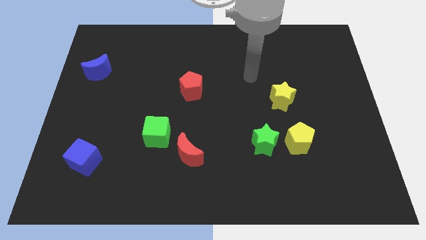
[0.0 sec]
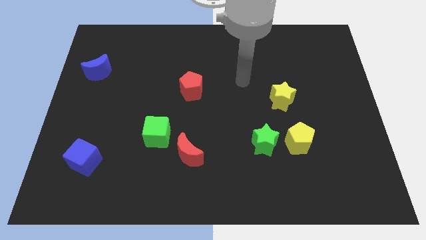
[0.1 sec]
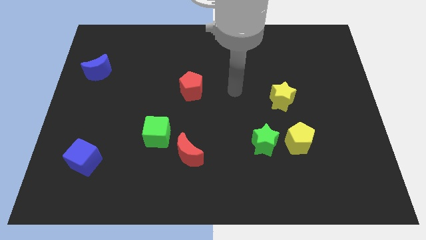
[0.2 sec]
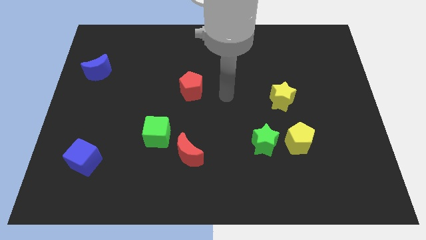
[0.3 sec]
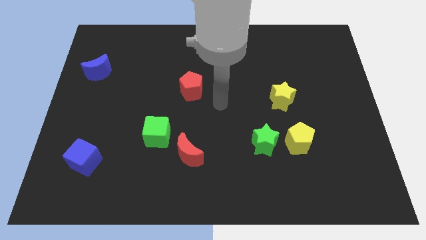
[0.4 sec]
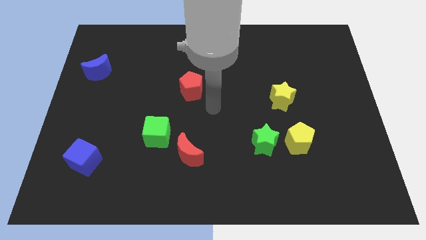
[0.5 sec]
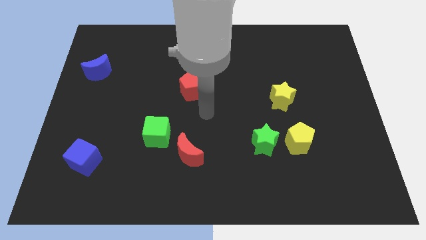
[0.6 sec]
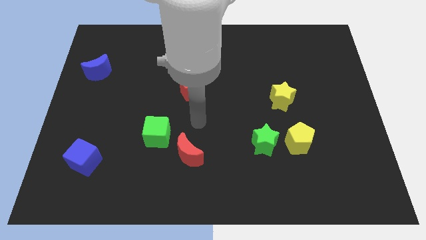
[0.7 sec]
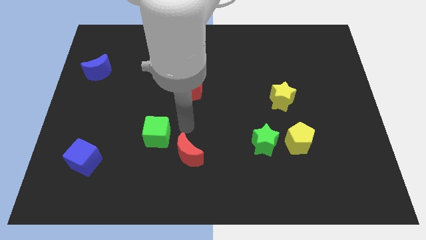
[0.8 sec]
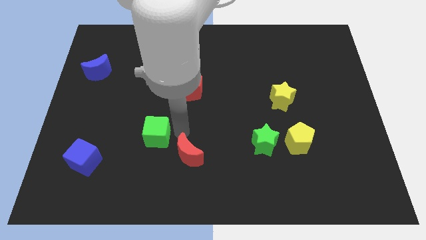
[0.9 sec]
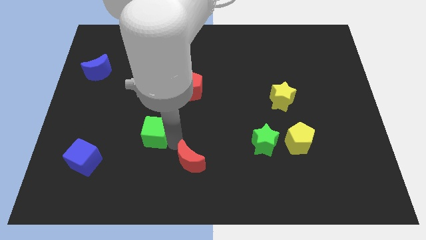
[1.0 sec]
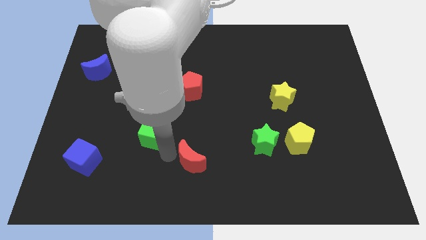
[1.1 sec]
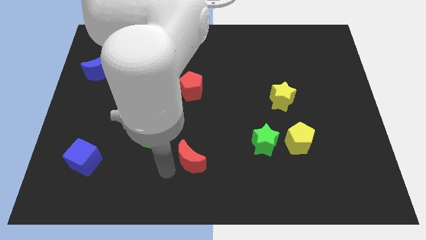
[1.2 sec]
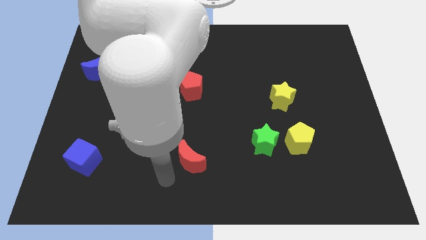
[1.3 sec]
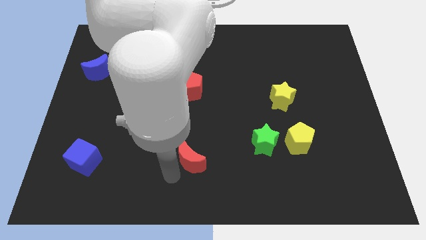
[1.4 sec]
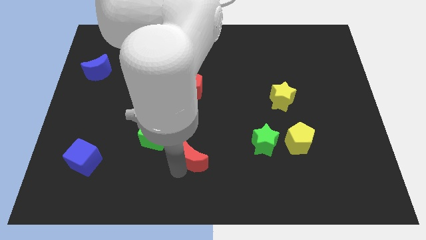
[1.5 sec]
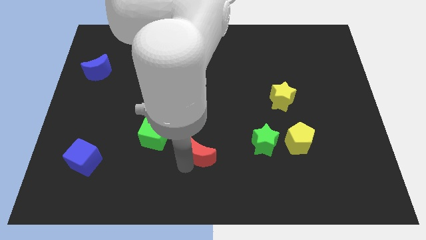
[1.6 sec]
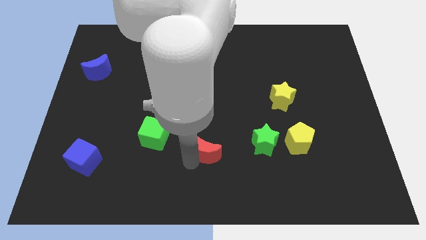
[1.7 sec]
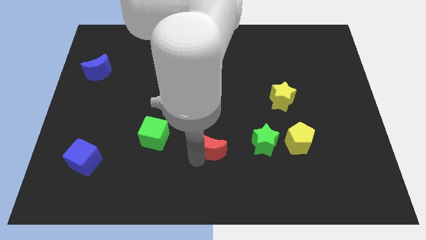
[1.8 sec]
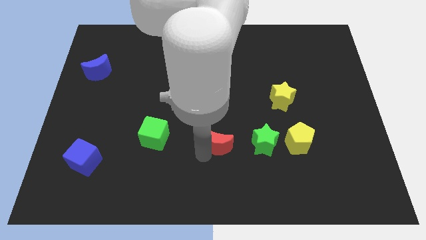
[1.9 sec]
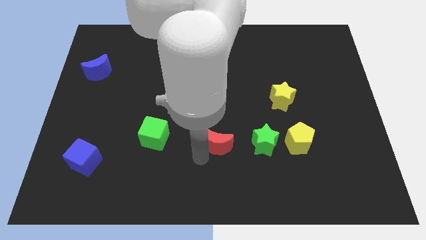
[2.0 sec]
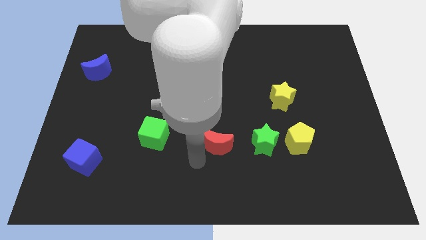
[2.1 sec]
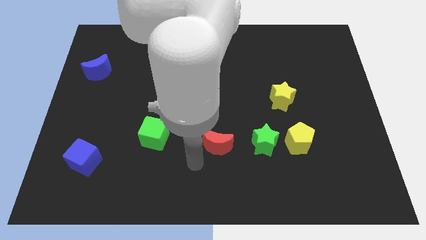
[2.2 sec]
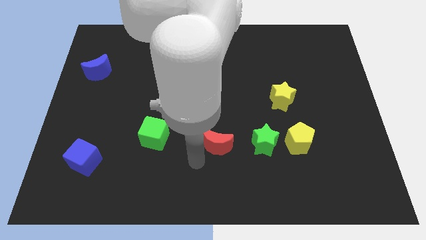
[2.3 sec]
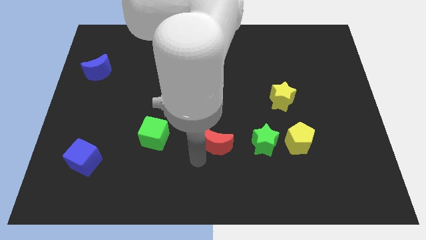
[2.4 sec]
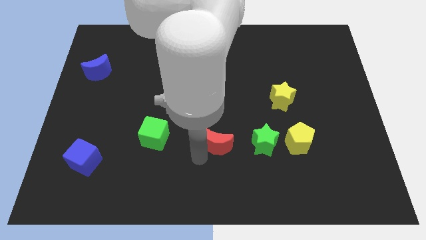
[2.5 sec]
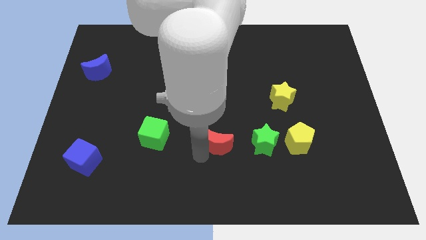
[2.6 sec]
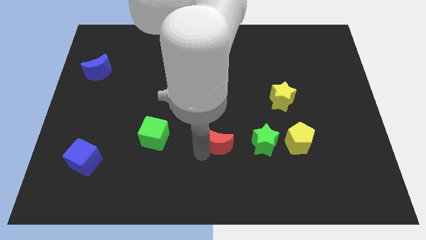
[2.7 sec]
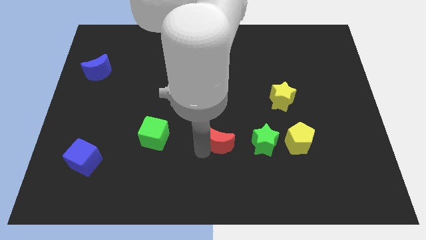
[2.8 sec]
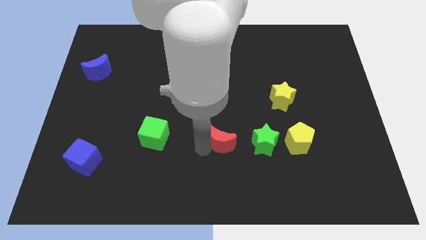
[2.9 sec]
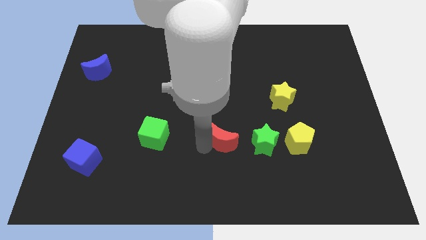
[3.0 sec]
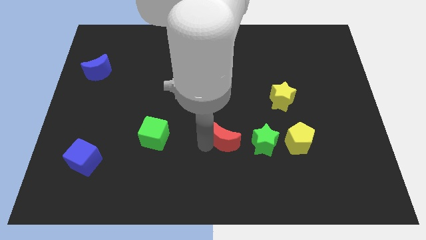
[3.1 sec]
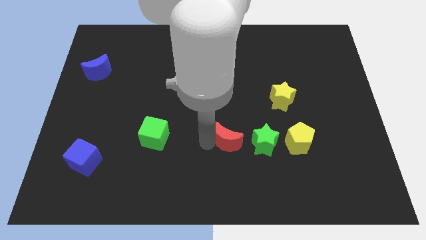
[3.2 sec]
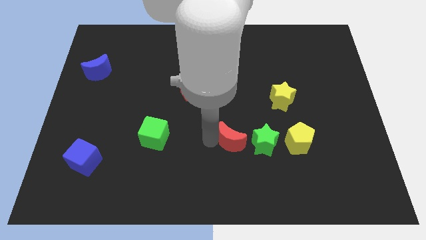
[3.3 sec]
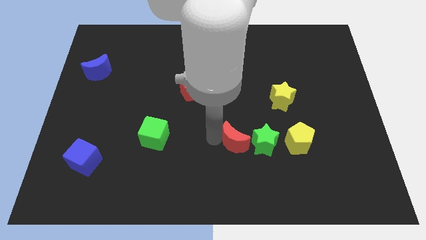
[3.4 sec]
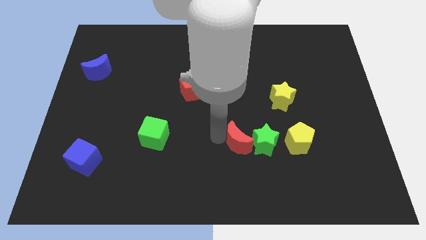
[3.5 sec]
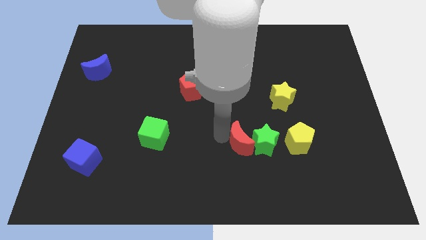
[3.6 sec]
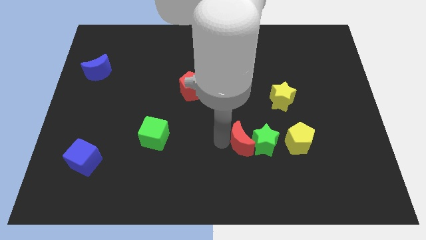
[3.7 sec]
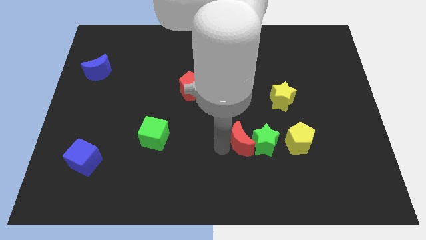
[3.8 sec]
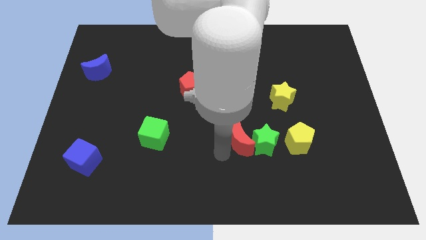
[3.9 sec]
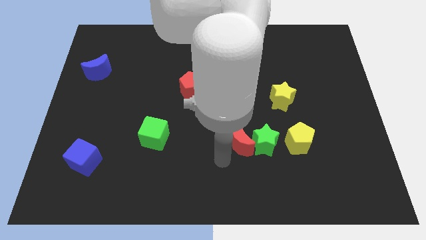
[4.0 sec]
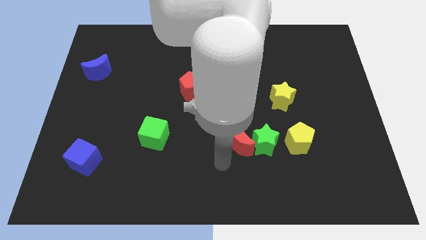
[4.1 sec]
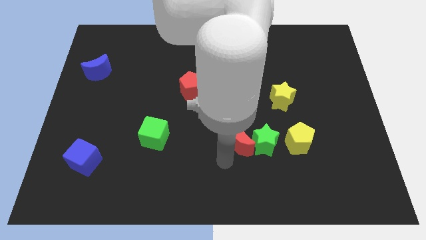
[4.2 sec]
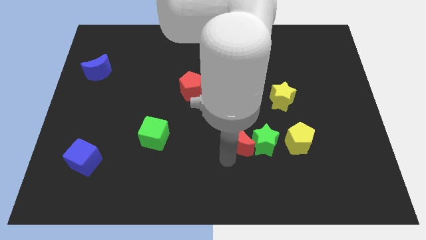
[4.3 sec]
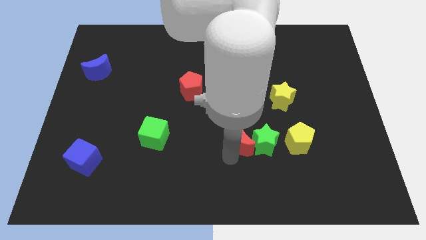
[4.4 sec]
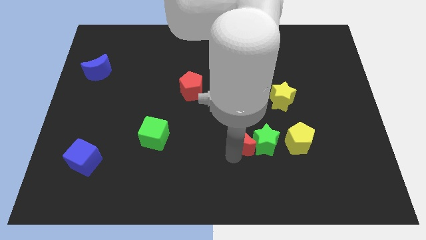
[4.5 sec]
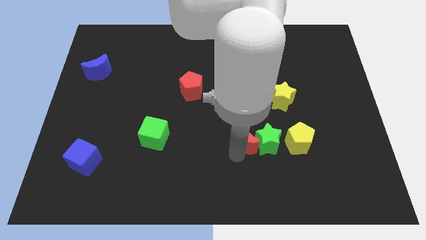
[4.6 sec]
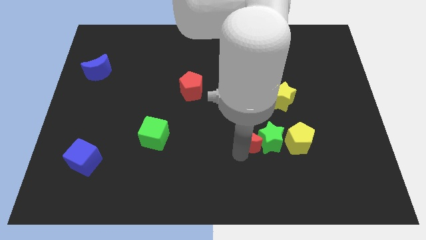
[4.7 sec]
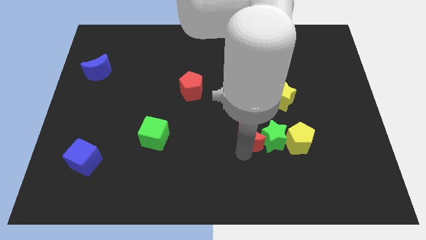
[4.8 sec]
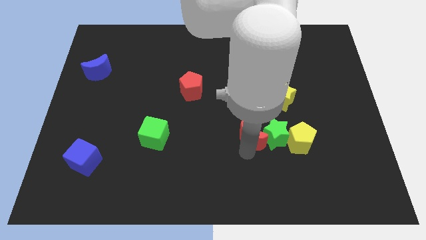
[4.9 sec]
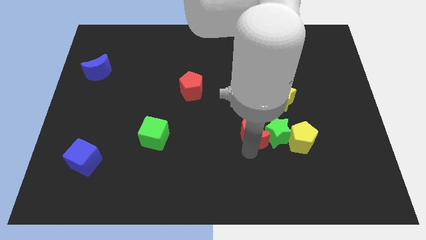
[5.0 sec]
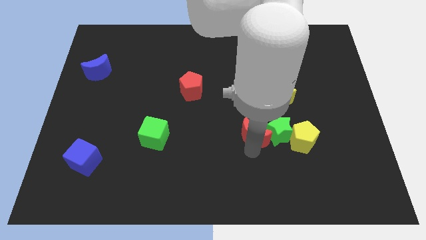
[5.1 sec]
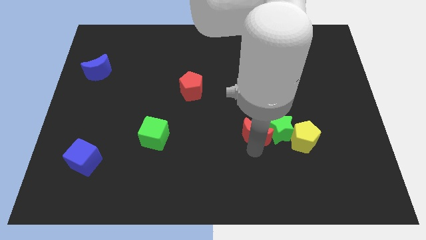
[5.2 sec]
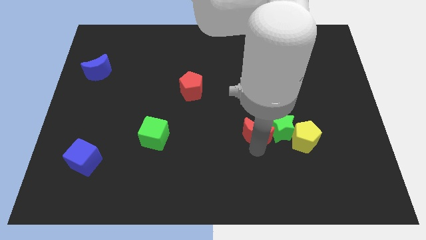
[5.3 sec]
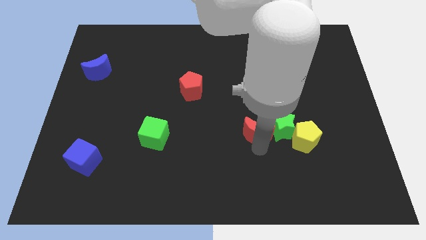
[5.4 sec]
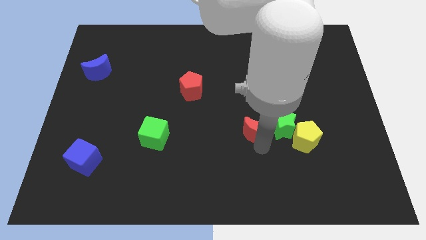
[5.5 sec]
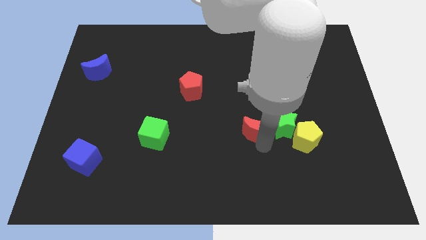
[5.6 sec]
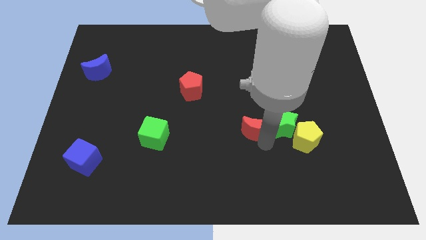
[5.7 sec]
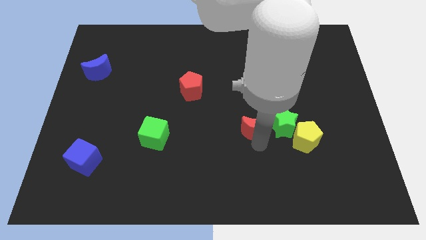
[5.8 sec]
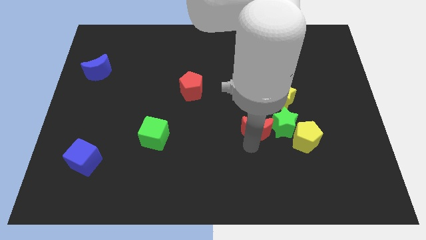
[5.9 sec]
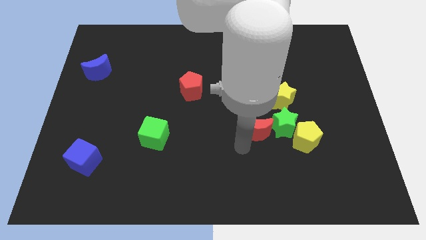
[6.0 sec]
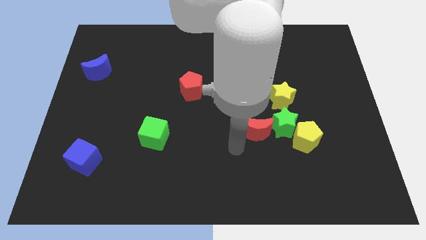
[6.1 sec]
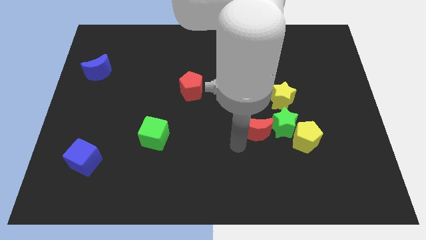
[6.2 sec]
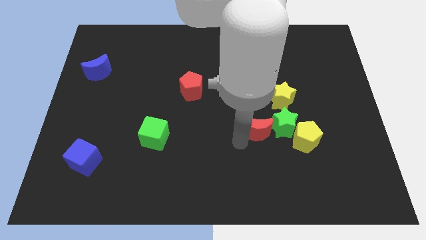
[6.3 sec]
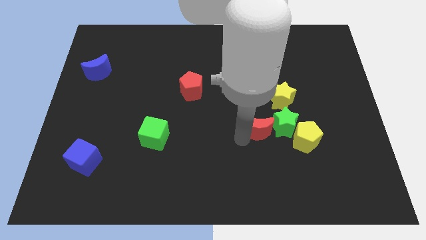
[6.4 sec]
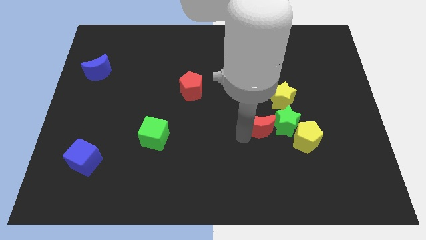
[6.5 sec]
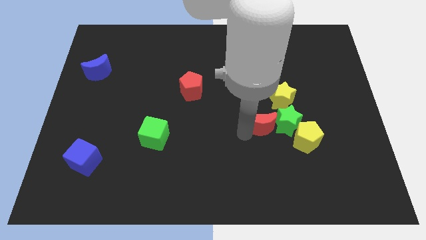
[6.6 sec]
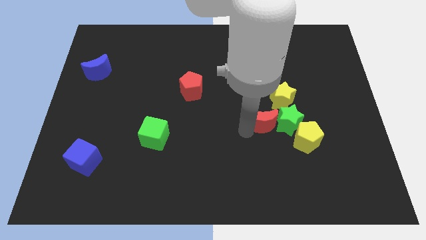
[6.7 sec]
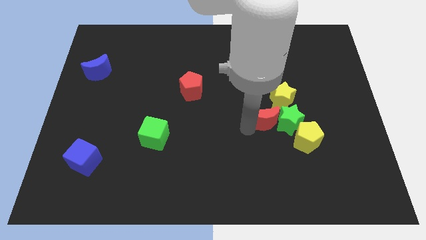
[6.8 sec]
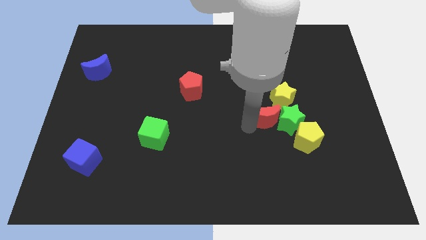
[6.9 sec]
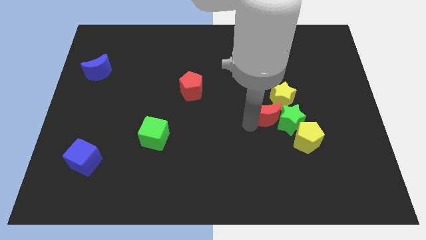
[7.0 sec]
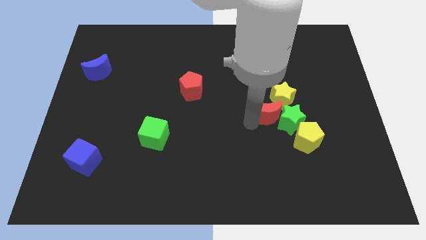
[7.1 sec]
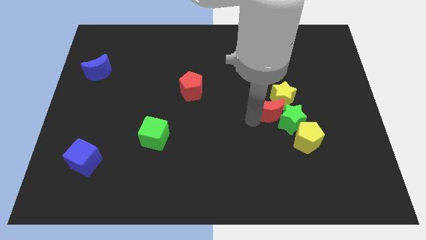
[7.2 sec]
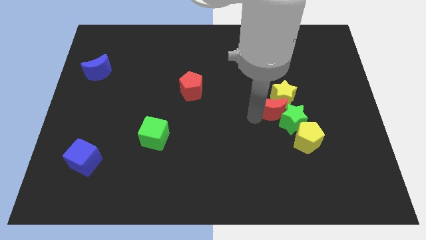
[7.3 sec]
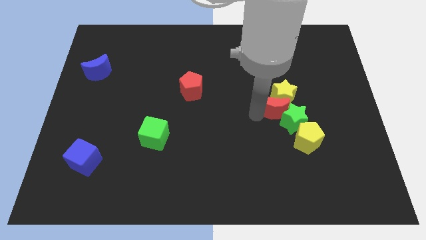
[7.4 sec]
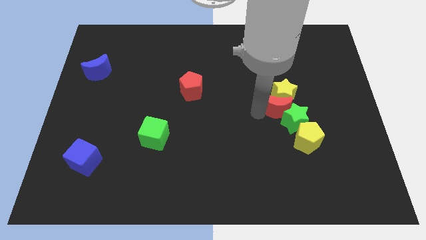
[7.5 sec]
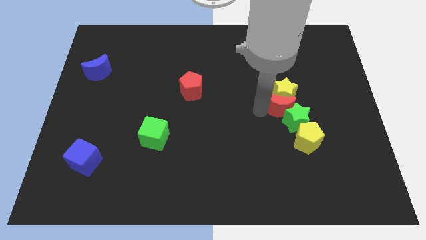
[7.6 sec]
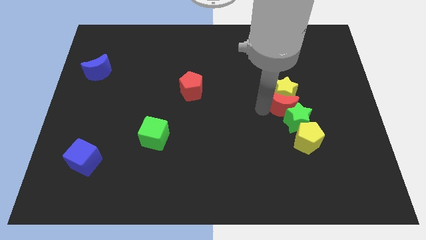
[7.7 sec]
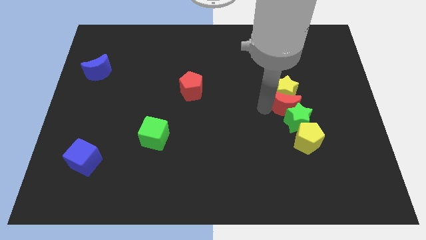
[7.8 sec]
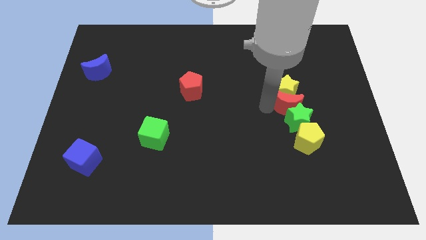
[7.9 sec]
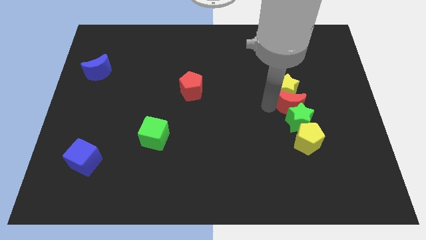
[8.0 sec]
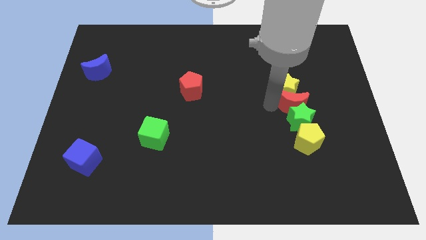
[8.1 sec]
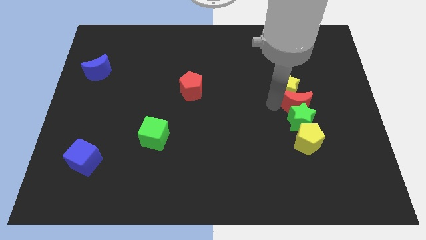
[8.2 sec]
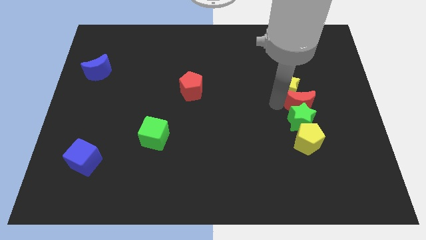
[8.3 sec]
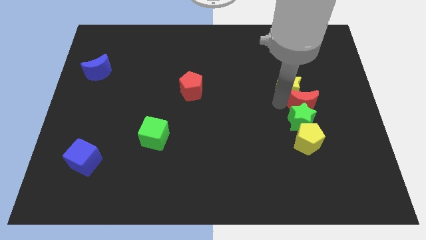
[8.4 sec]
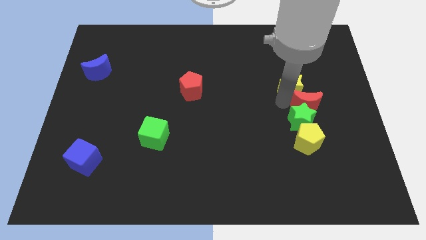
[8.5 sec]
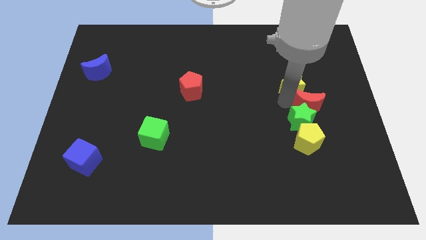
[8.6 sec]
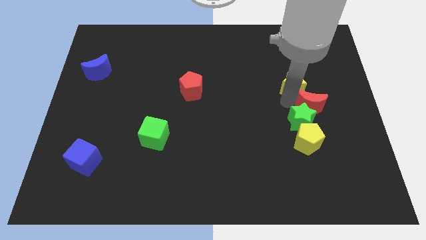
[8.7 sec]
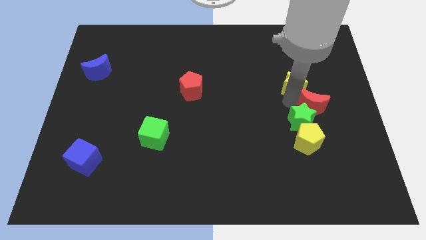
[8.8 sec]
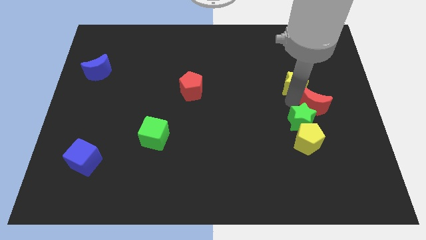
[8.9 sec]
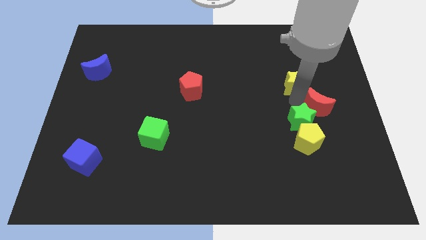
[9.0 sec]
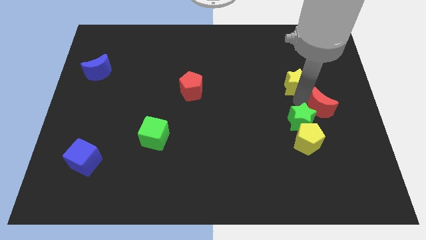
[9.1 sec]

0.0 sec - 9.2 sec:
put the red moon to the right side of the board
